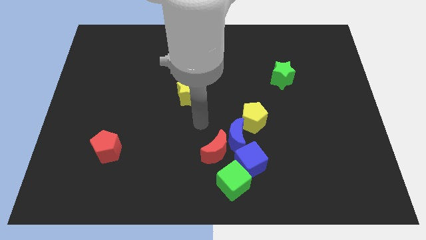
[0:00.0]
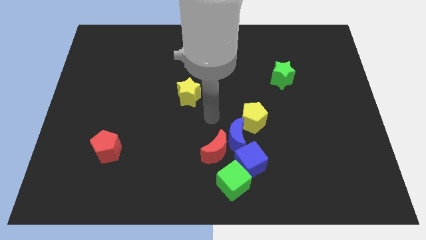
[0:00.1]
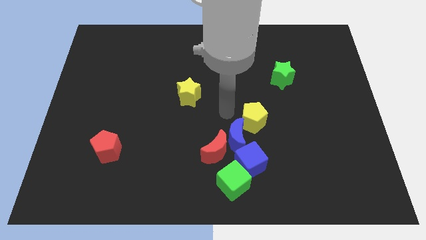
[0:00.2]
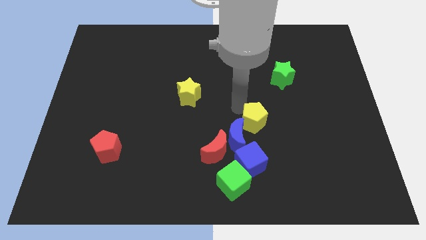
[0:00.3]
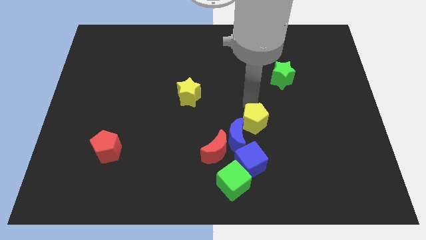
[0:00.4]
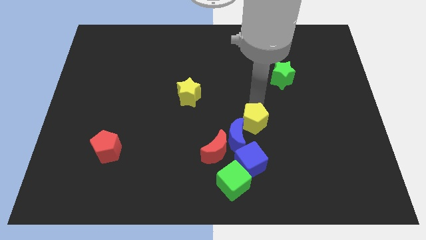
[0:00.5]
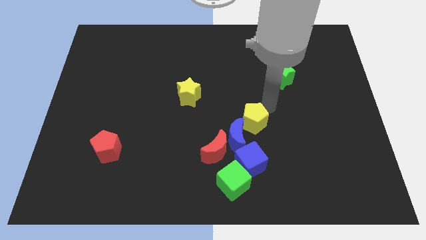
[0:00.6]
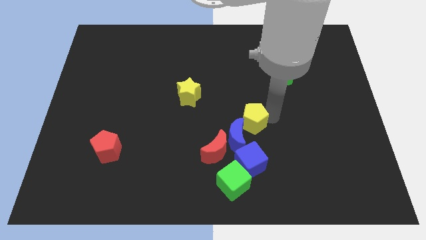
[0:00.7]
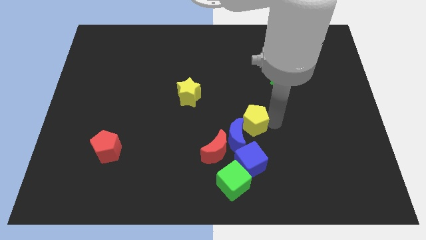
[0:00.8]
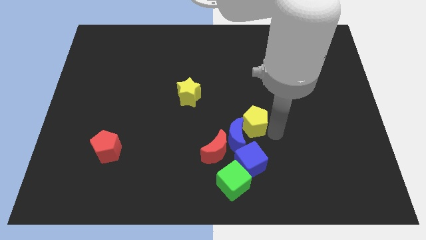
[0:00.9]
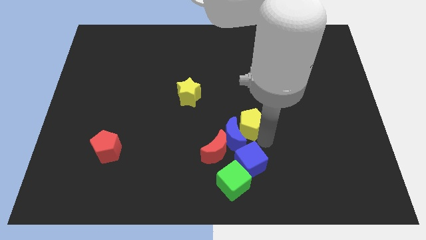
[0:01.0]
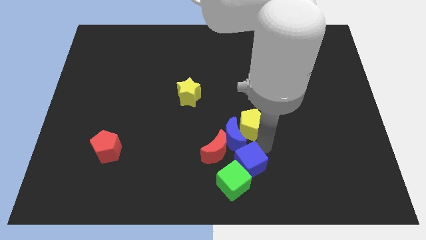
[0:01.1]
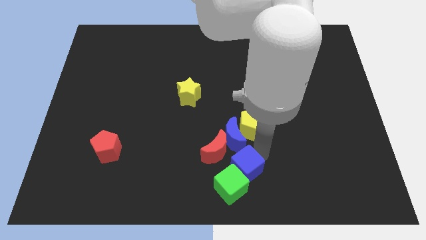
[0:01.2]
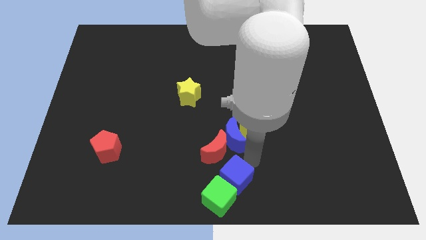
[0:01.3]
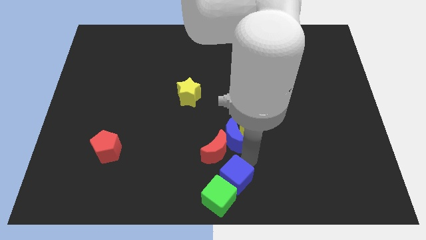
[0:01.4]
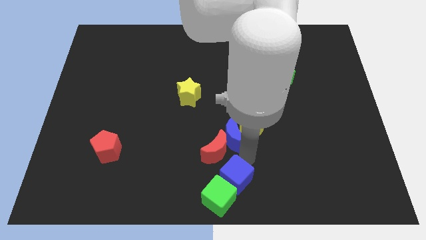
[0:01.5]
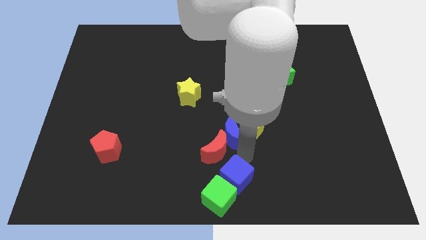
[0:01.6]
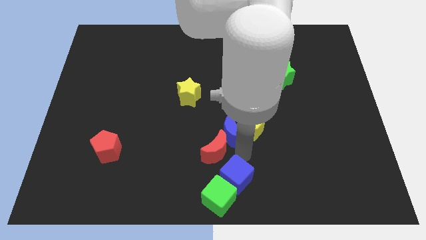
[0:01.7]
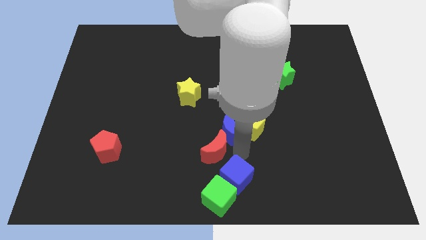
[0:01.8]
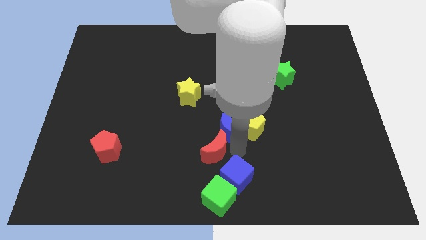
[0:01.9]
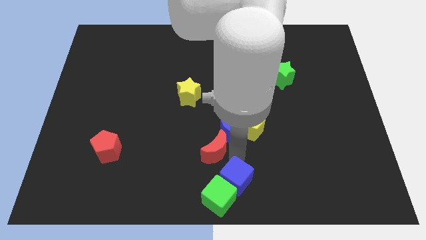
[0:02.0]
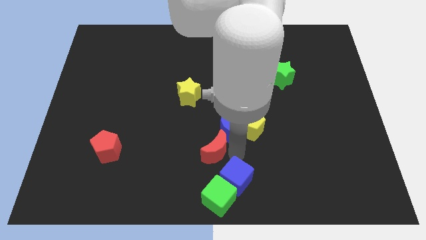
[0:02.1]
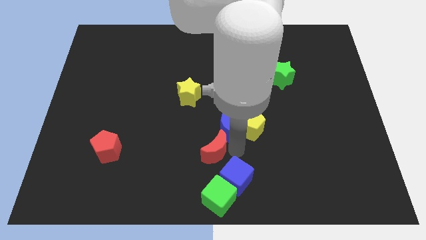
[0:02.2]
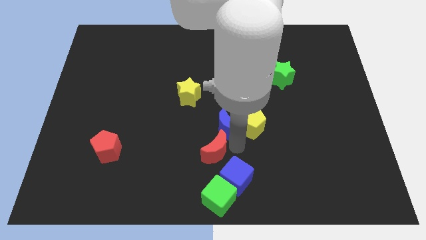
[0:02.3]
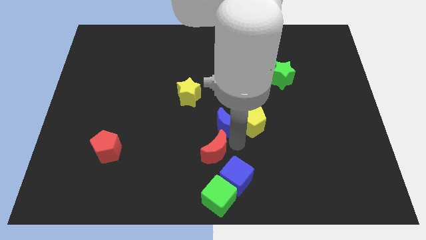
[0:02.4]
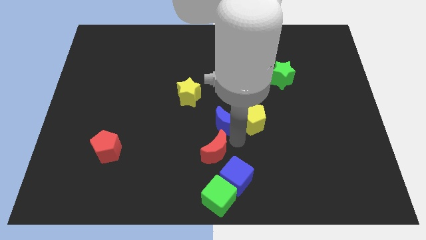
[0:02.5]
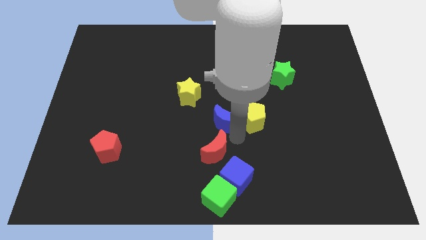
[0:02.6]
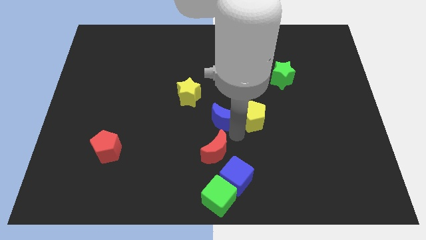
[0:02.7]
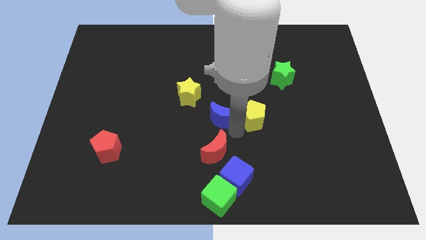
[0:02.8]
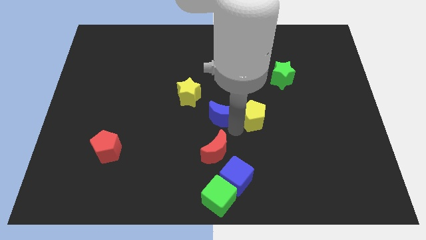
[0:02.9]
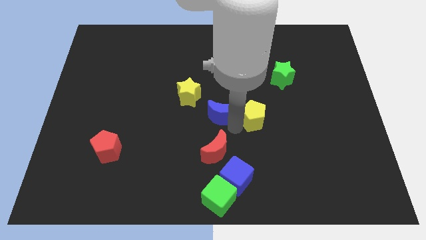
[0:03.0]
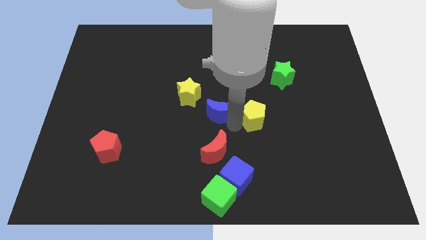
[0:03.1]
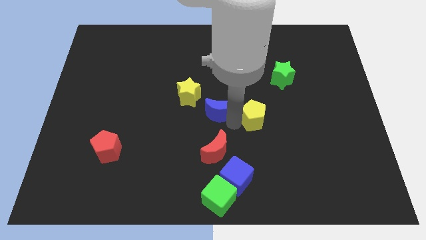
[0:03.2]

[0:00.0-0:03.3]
move the blue moon away from the group of blocks

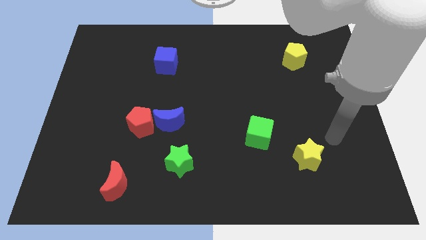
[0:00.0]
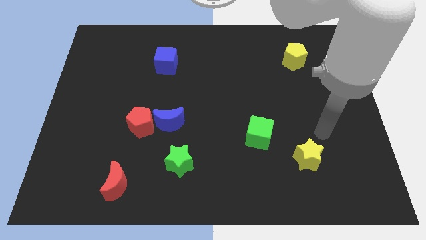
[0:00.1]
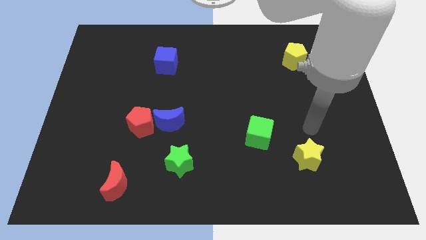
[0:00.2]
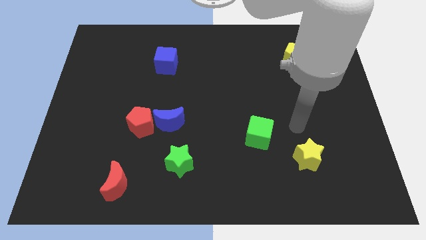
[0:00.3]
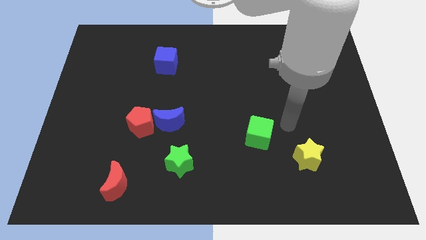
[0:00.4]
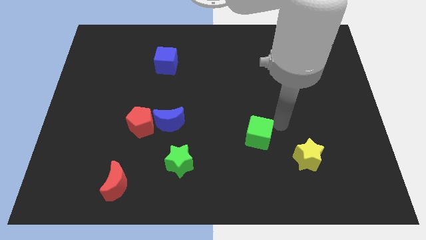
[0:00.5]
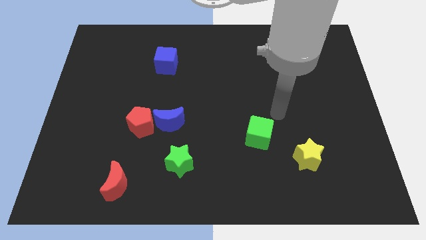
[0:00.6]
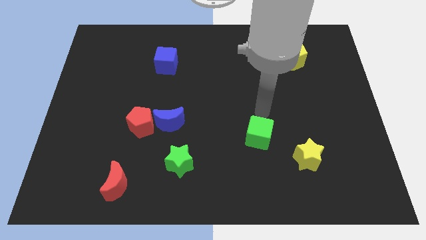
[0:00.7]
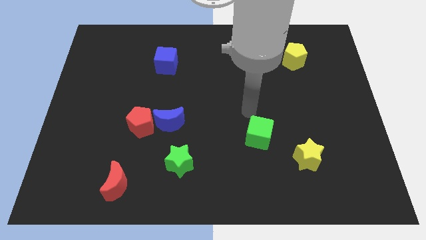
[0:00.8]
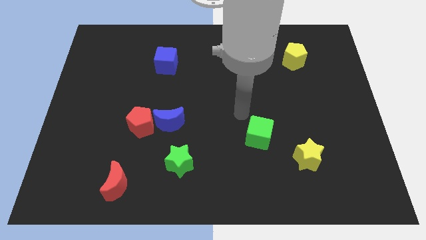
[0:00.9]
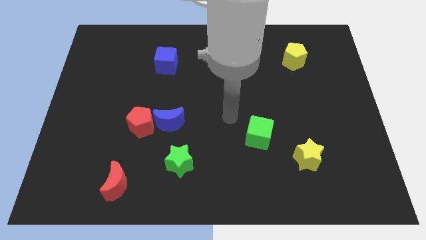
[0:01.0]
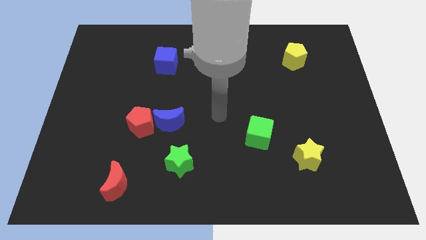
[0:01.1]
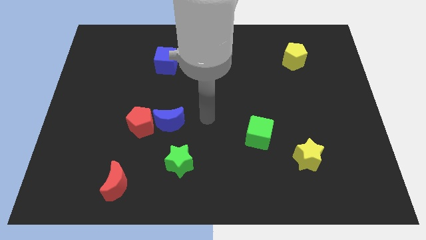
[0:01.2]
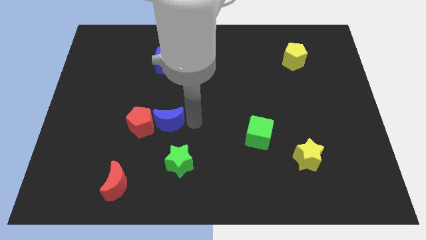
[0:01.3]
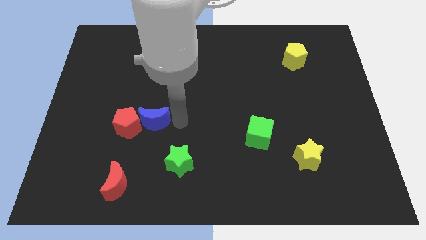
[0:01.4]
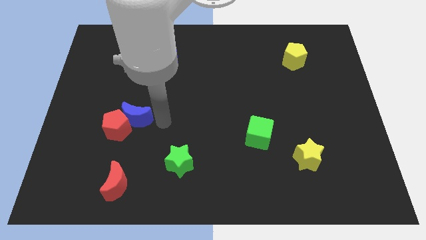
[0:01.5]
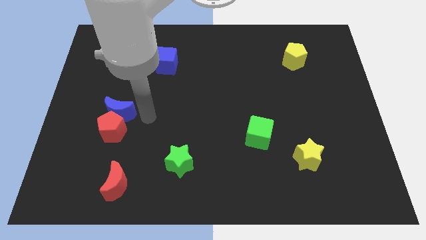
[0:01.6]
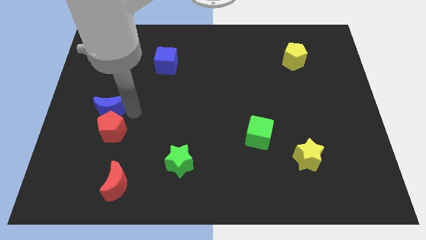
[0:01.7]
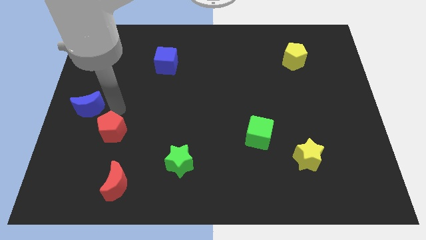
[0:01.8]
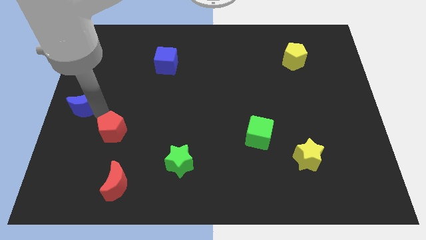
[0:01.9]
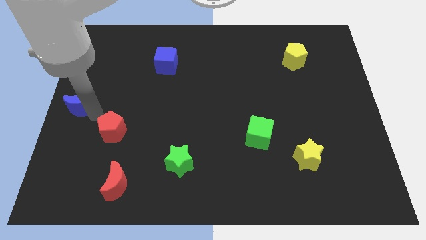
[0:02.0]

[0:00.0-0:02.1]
separate the red pentagon from the blue moon

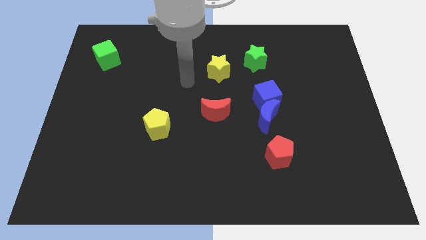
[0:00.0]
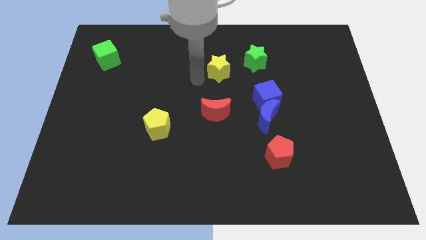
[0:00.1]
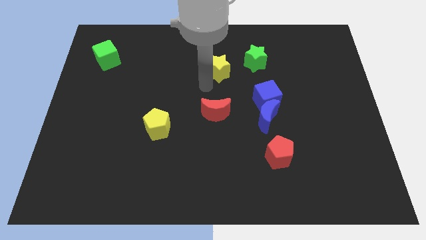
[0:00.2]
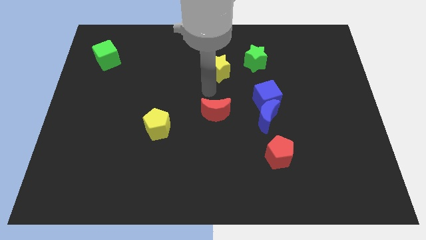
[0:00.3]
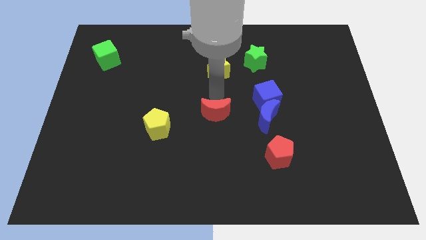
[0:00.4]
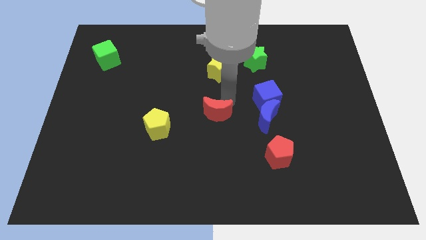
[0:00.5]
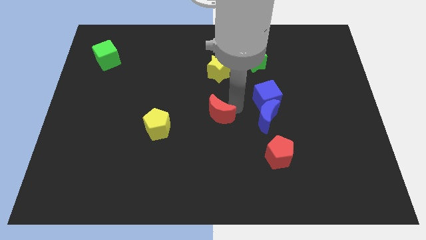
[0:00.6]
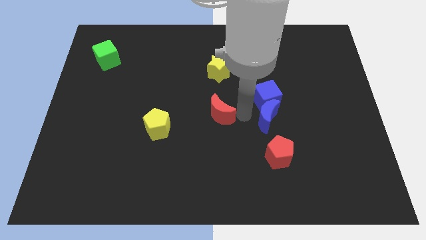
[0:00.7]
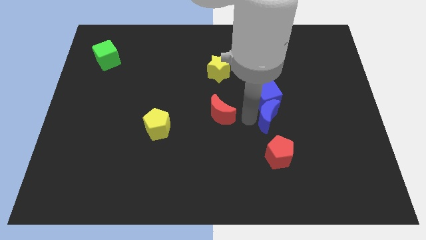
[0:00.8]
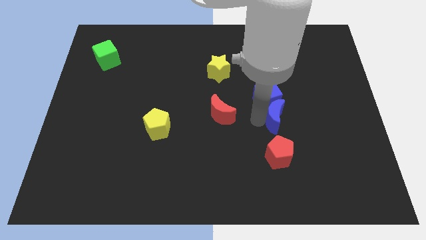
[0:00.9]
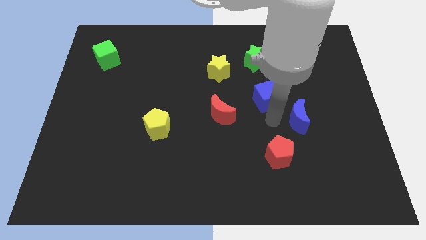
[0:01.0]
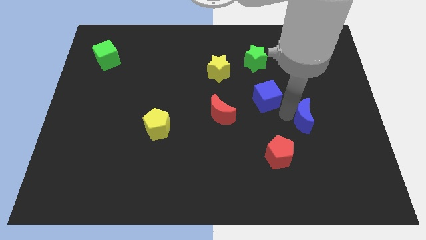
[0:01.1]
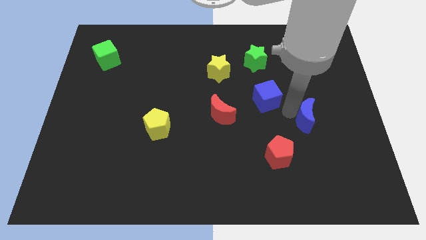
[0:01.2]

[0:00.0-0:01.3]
move the blue cube away from the blue moon

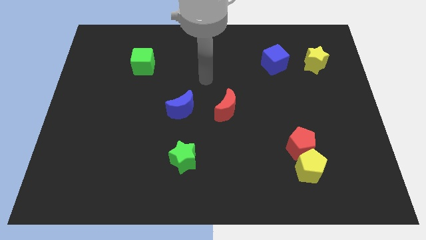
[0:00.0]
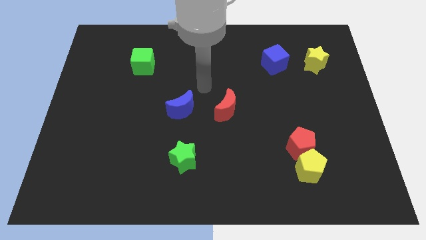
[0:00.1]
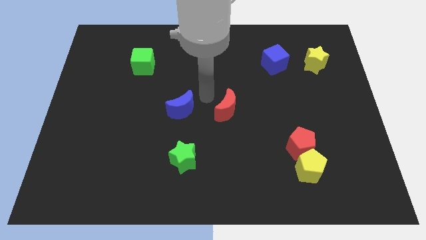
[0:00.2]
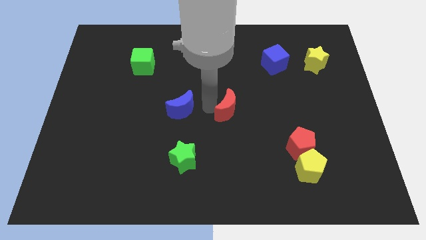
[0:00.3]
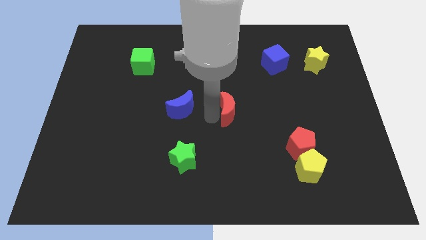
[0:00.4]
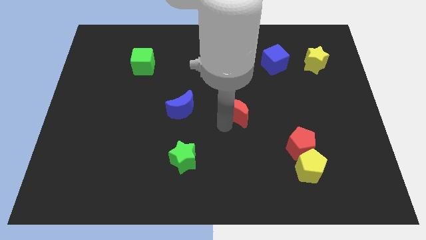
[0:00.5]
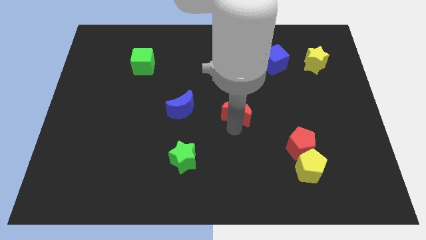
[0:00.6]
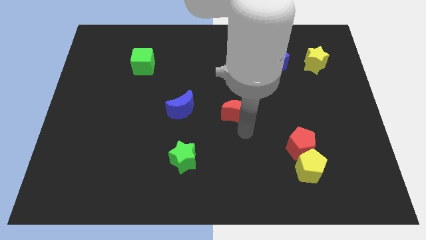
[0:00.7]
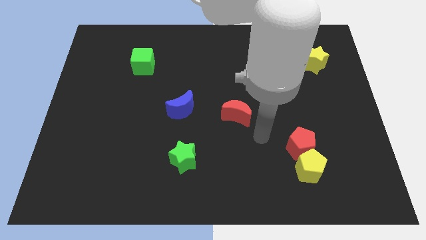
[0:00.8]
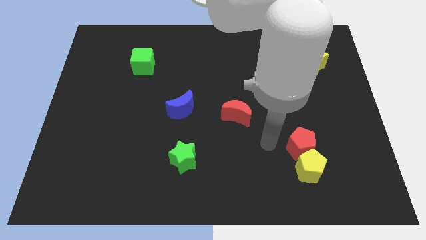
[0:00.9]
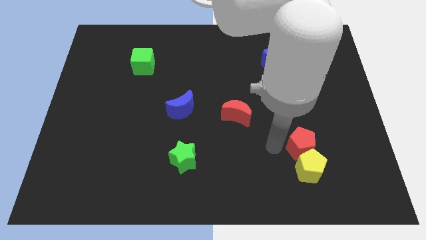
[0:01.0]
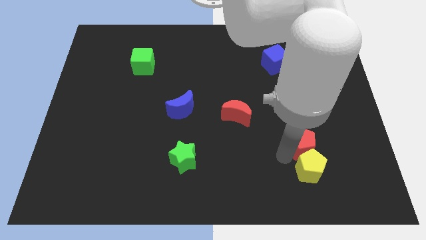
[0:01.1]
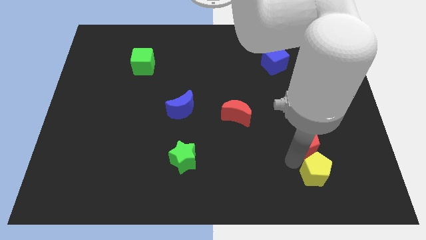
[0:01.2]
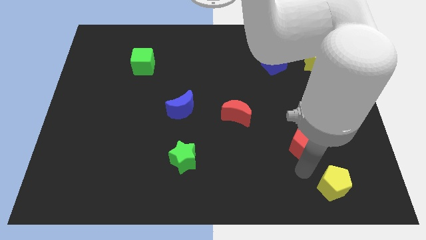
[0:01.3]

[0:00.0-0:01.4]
separate the red pentagon from the yellow pentagon

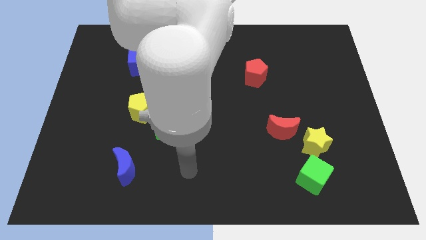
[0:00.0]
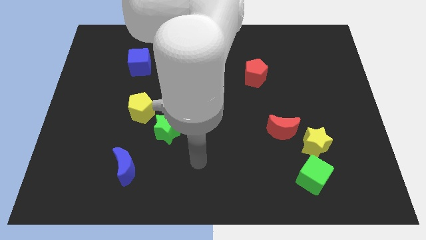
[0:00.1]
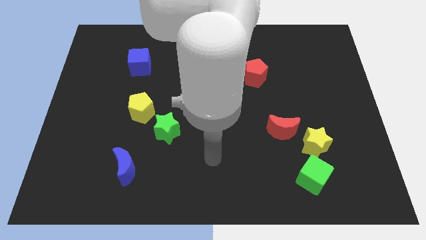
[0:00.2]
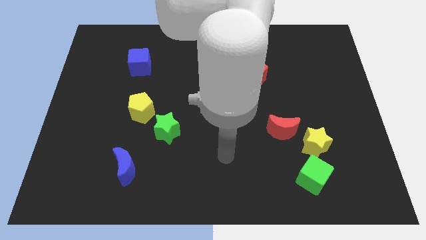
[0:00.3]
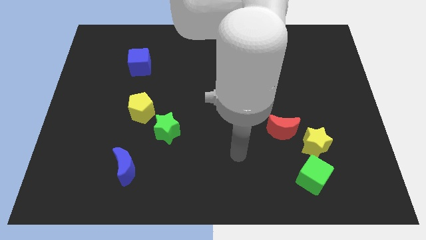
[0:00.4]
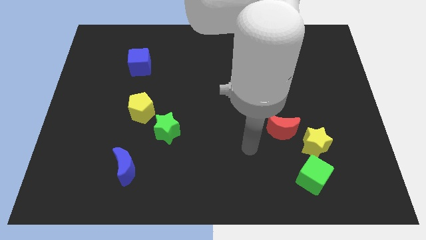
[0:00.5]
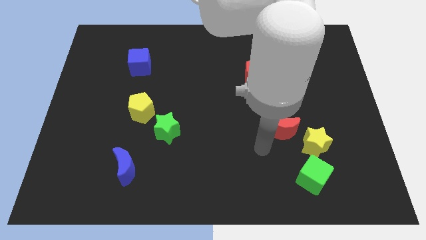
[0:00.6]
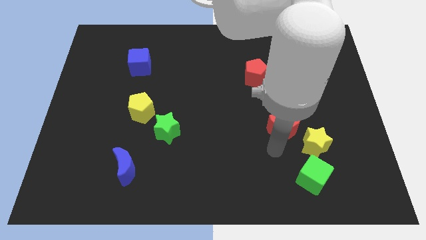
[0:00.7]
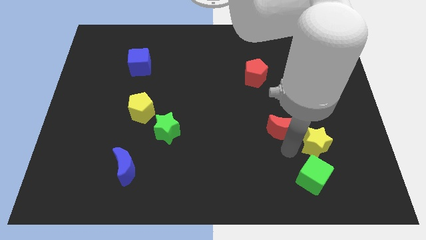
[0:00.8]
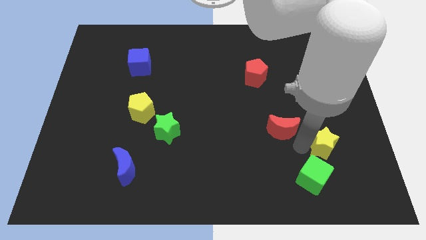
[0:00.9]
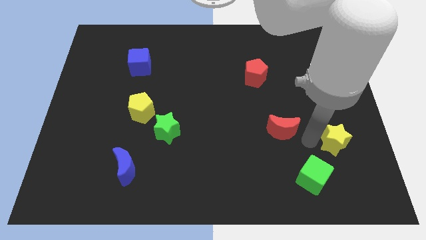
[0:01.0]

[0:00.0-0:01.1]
pull the red moon apart from the yellow star

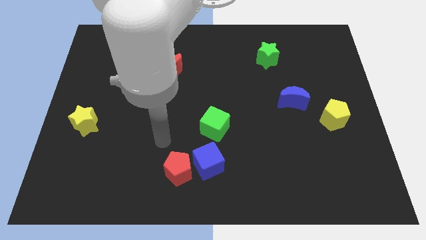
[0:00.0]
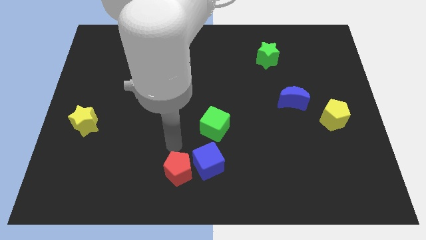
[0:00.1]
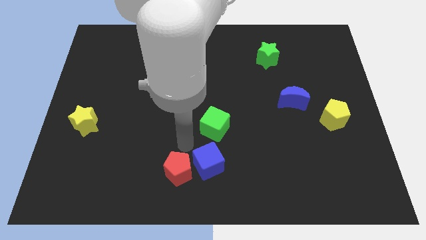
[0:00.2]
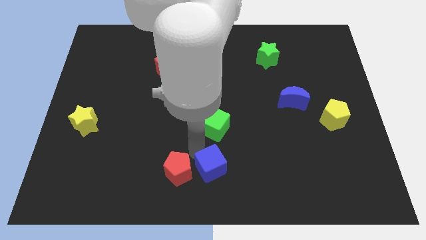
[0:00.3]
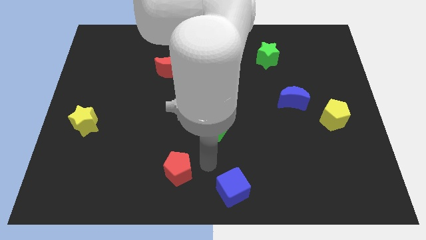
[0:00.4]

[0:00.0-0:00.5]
pull the red pentagon apart from the blue cube
